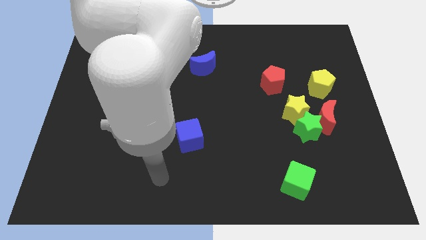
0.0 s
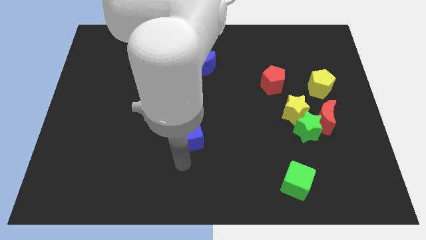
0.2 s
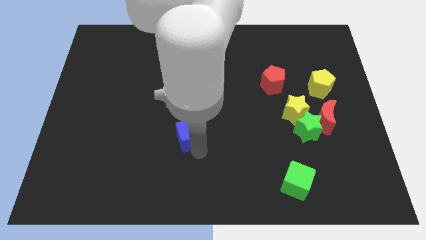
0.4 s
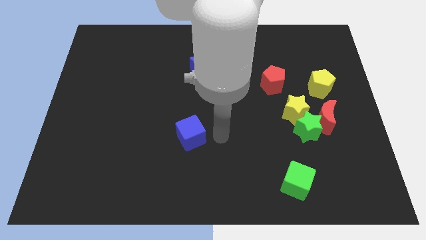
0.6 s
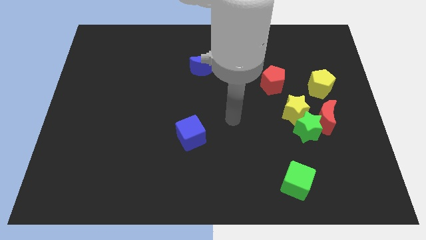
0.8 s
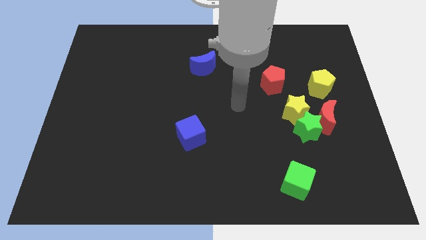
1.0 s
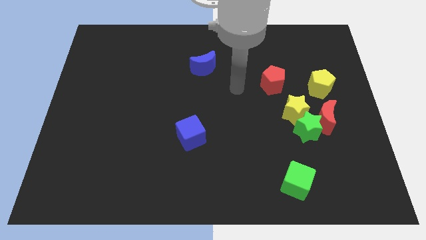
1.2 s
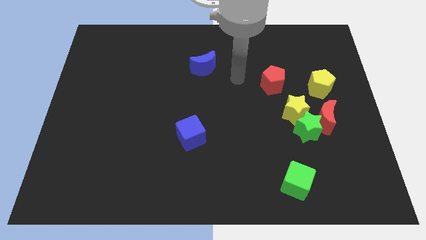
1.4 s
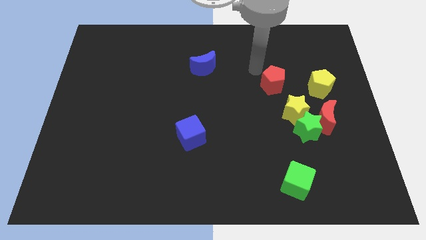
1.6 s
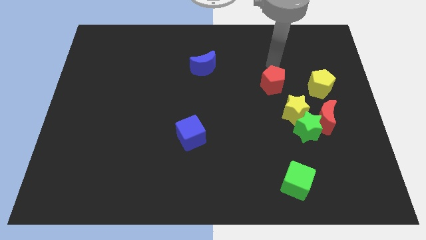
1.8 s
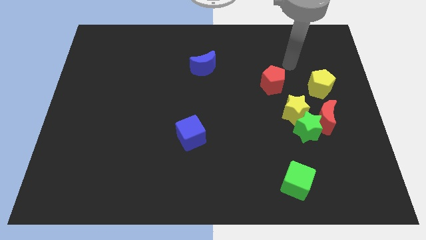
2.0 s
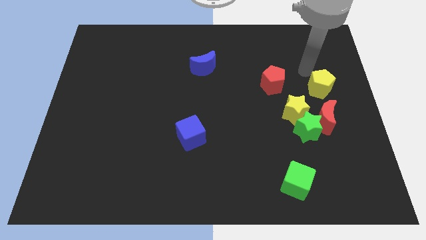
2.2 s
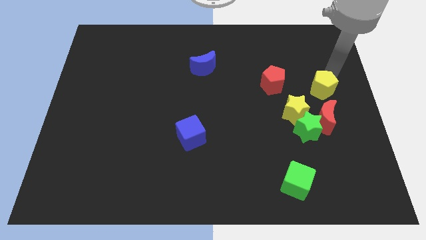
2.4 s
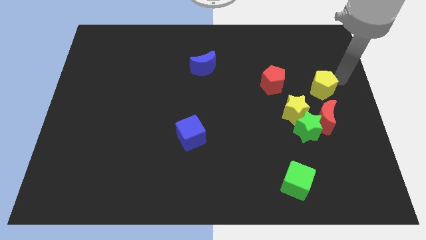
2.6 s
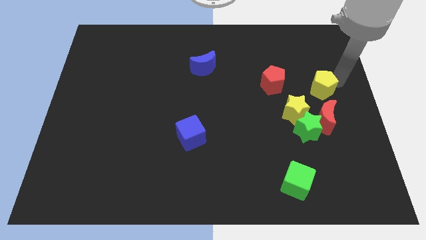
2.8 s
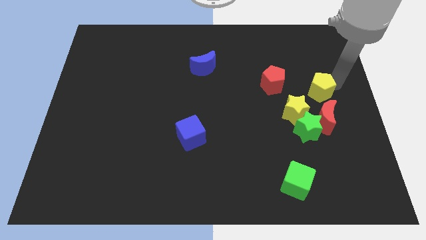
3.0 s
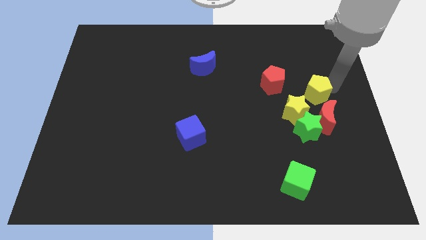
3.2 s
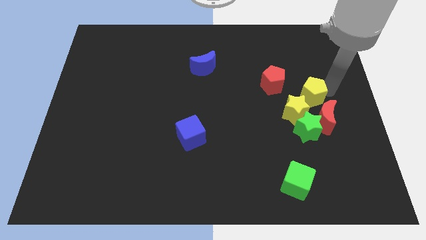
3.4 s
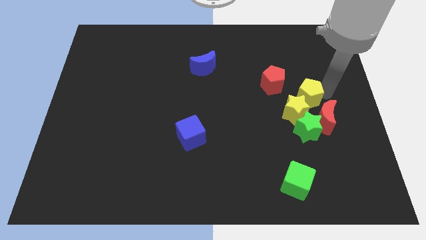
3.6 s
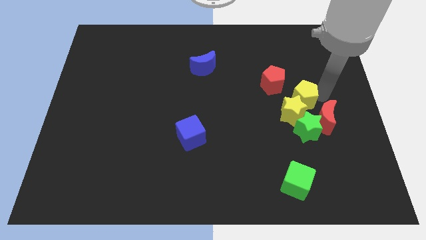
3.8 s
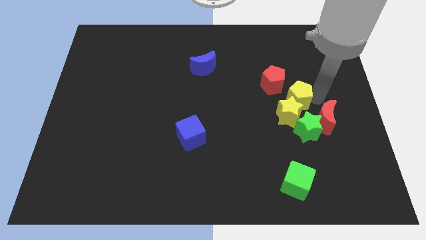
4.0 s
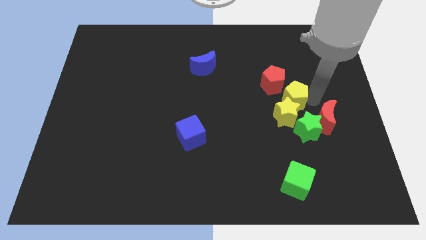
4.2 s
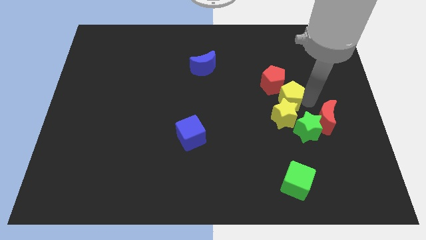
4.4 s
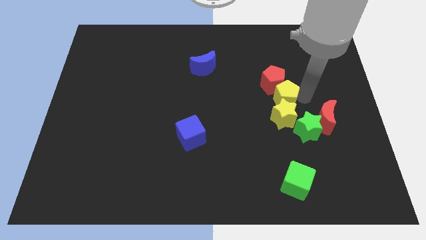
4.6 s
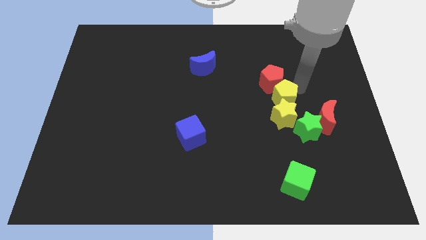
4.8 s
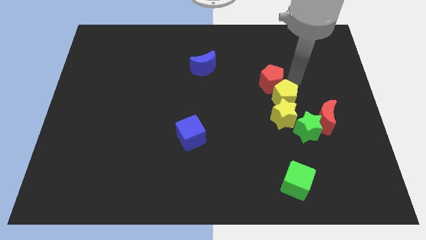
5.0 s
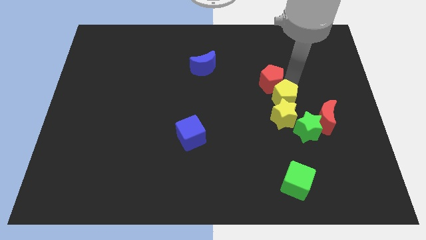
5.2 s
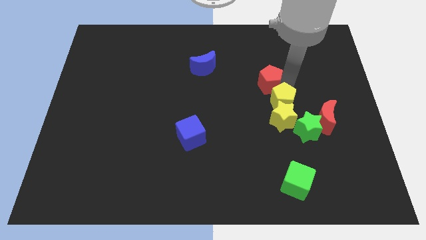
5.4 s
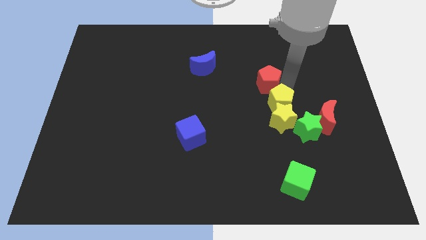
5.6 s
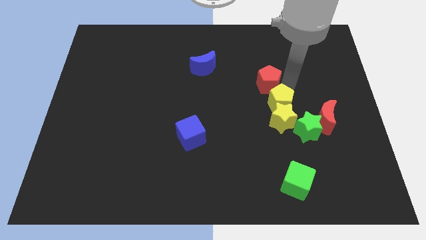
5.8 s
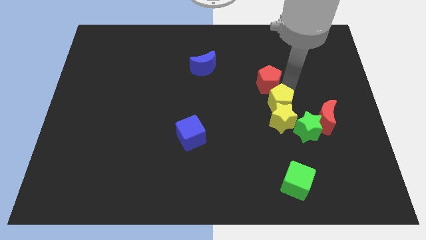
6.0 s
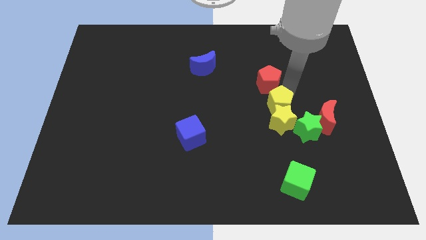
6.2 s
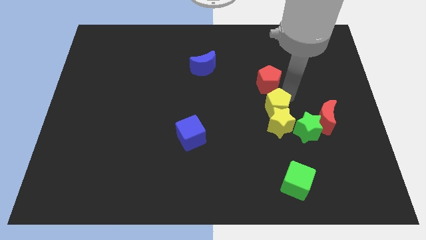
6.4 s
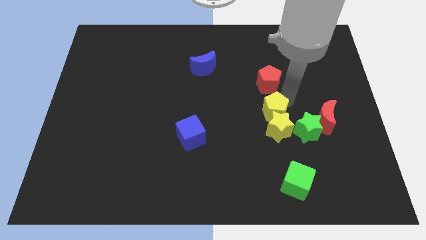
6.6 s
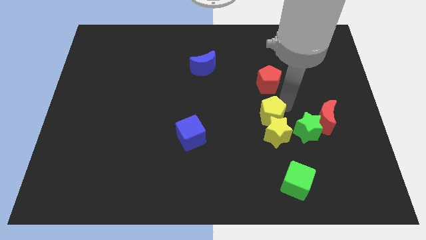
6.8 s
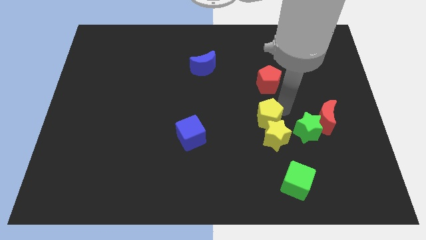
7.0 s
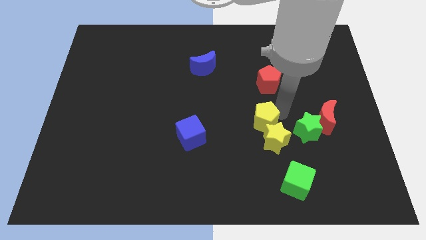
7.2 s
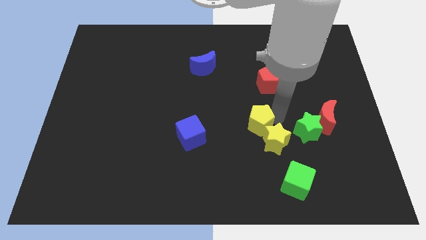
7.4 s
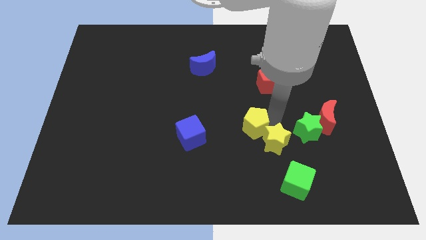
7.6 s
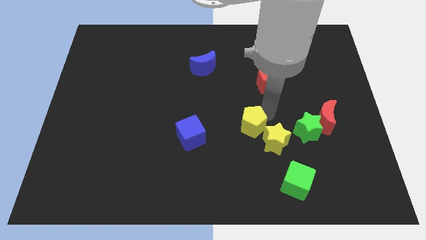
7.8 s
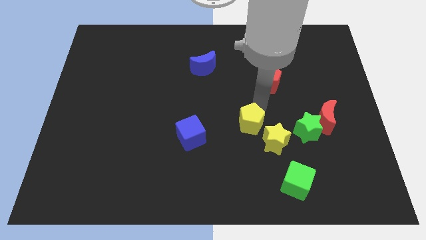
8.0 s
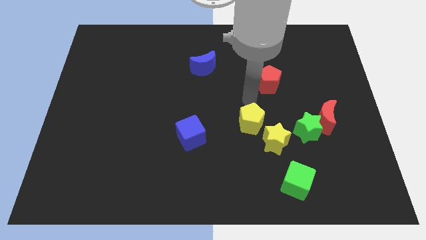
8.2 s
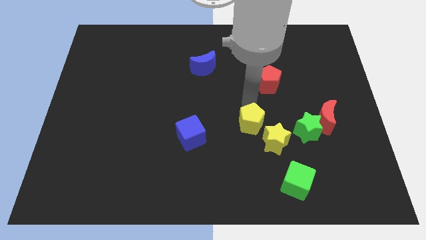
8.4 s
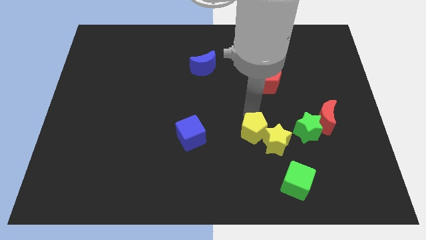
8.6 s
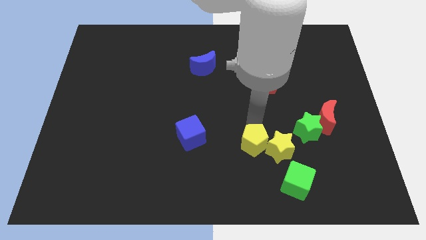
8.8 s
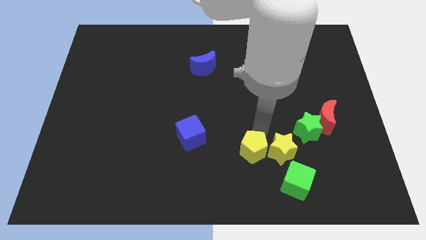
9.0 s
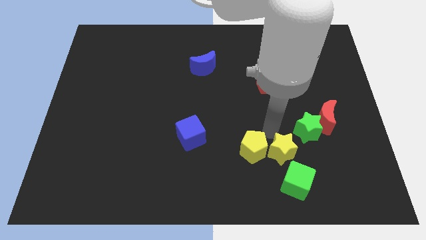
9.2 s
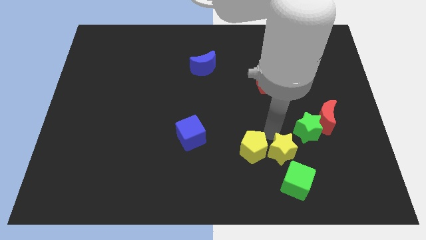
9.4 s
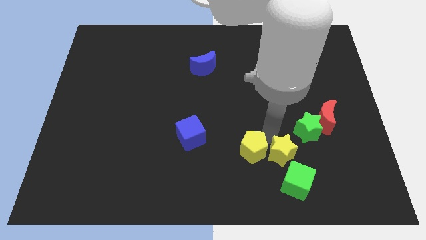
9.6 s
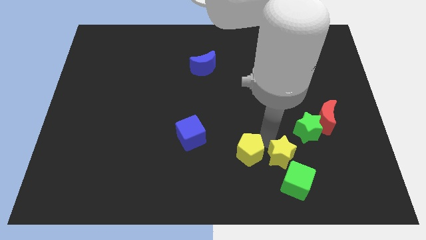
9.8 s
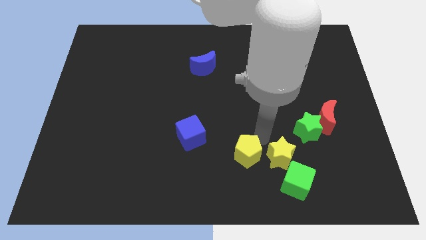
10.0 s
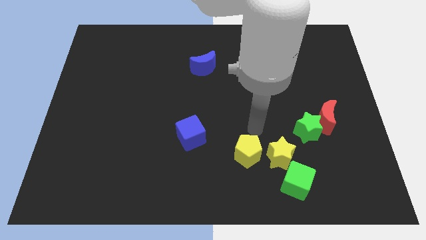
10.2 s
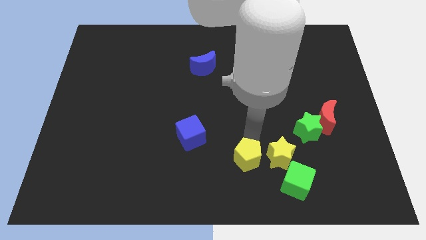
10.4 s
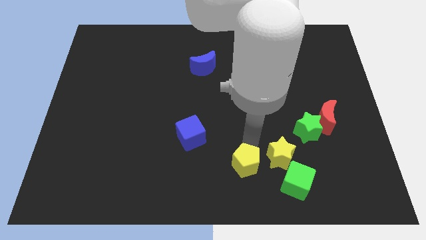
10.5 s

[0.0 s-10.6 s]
slide the yellow pentagon to the bottom

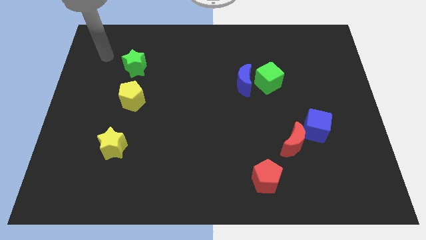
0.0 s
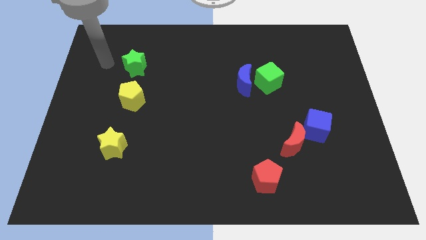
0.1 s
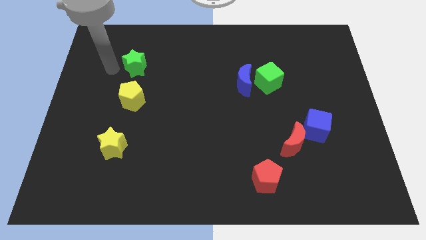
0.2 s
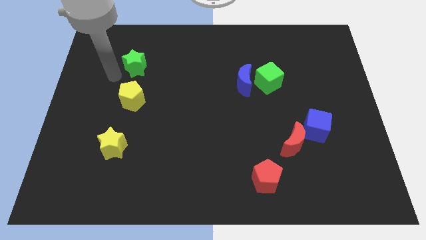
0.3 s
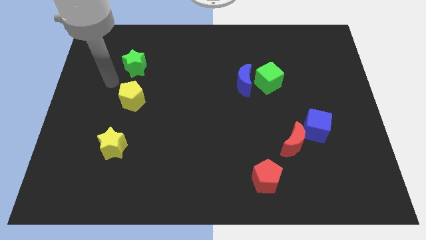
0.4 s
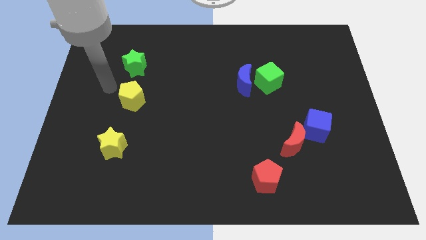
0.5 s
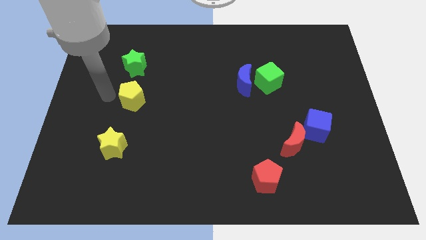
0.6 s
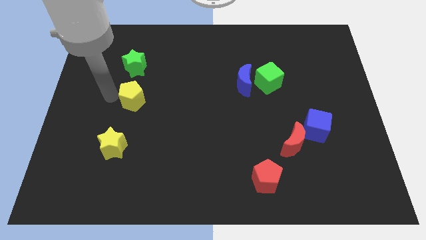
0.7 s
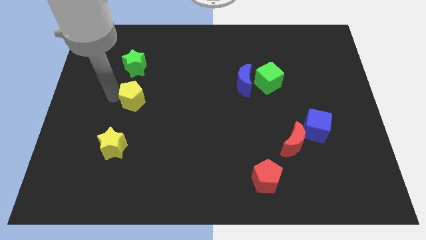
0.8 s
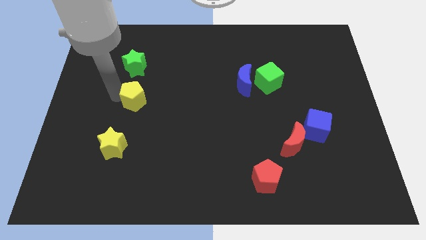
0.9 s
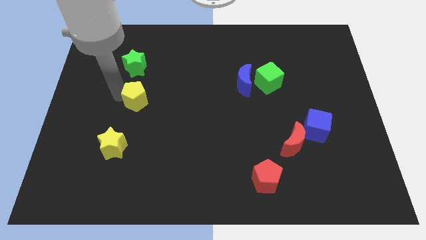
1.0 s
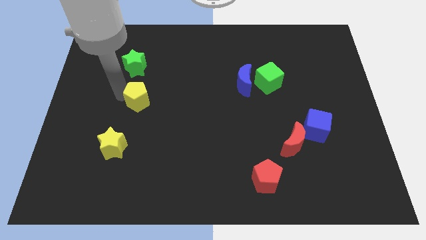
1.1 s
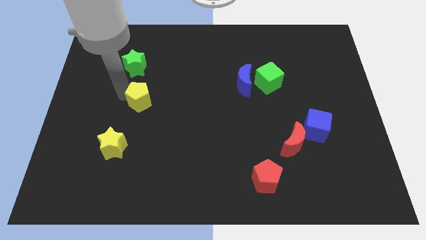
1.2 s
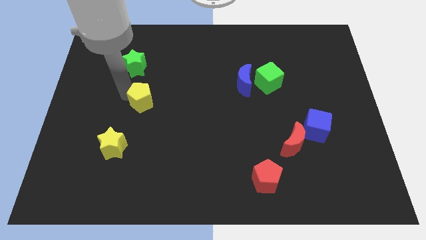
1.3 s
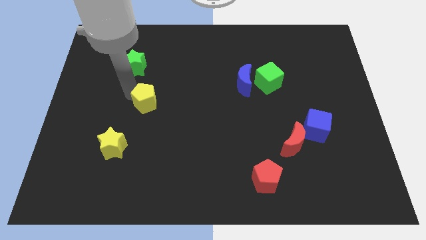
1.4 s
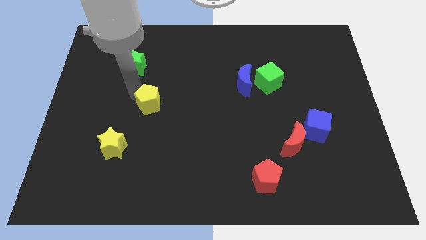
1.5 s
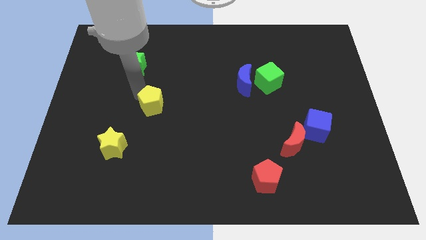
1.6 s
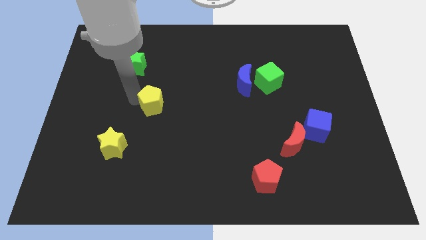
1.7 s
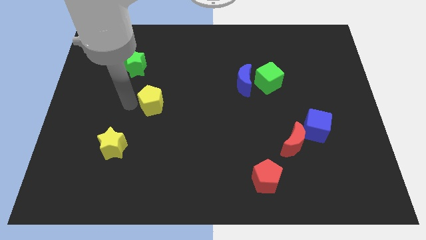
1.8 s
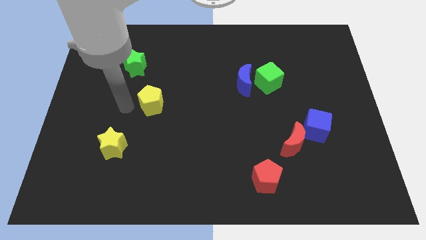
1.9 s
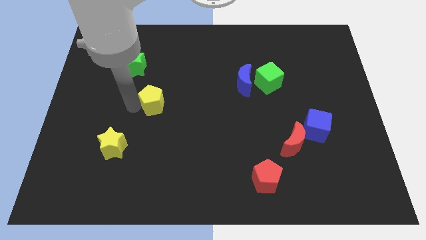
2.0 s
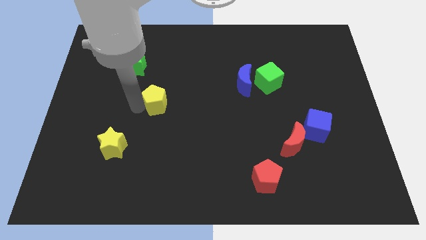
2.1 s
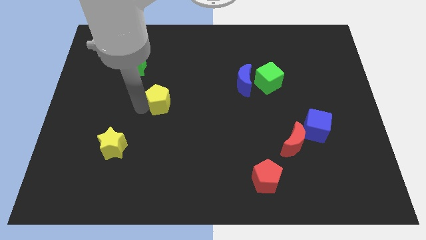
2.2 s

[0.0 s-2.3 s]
put the yellow pentagon to the middle of the board
